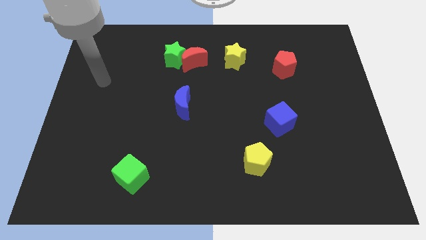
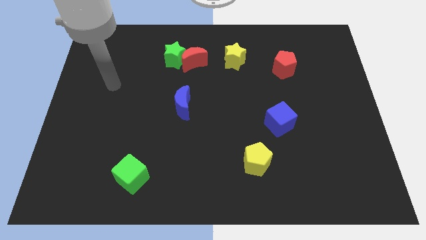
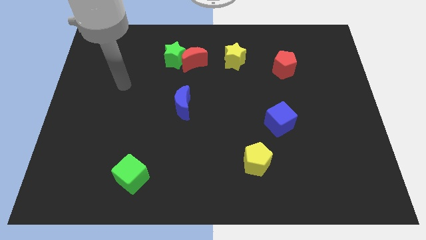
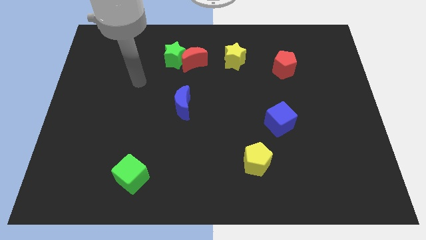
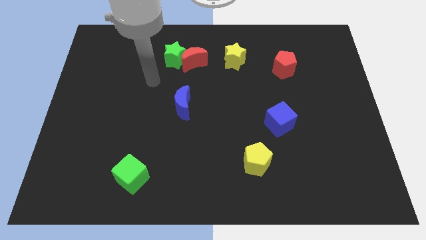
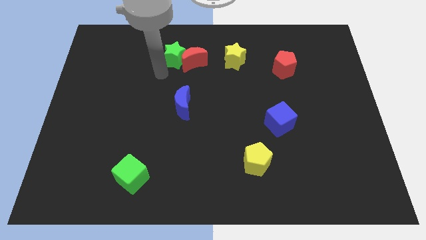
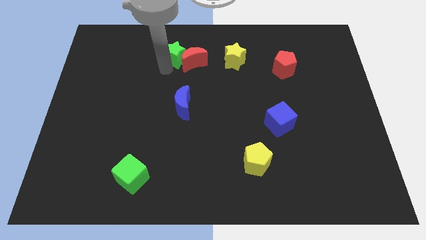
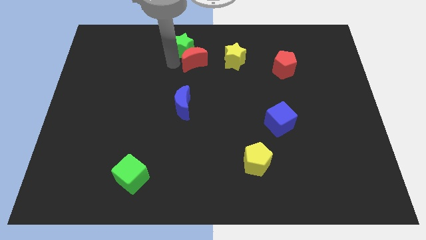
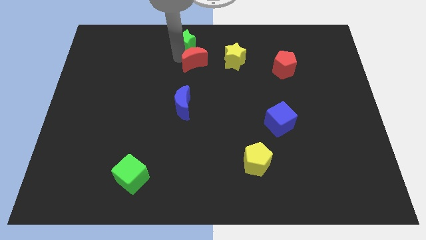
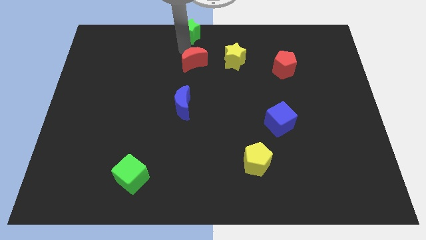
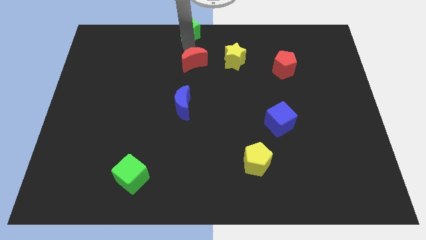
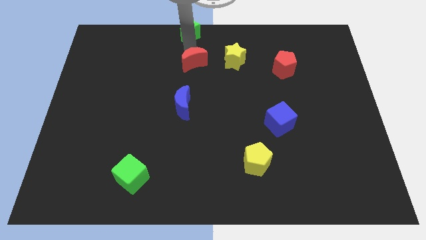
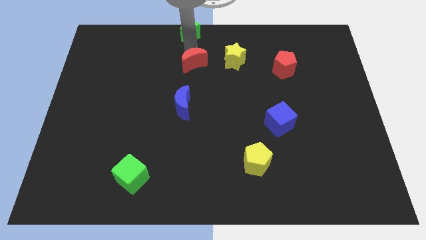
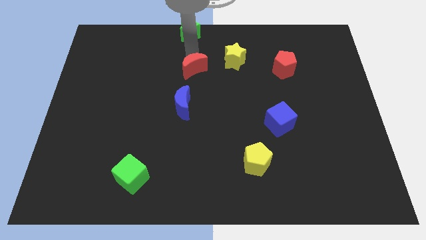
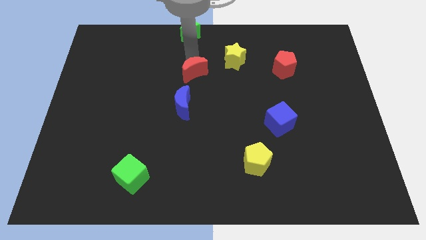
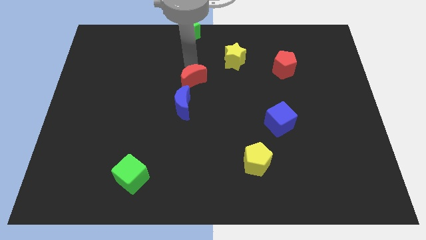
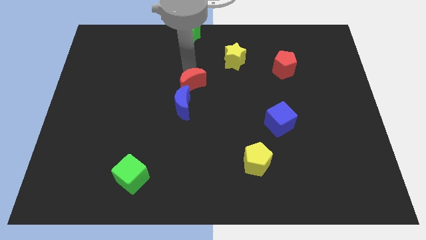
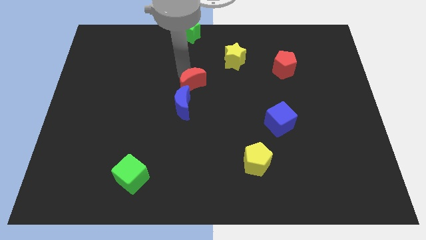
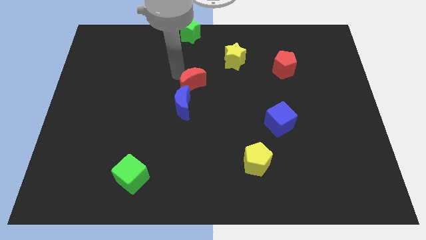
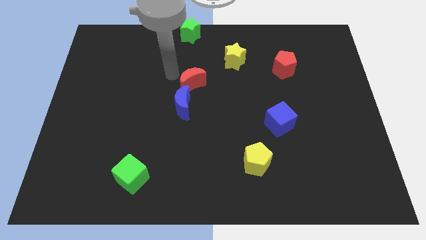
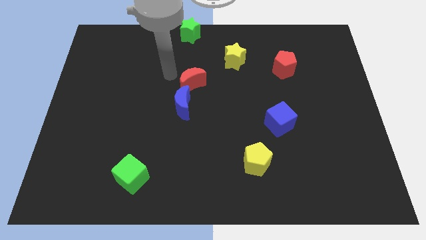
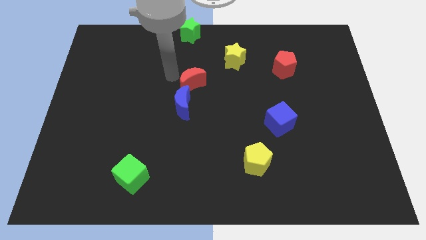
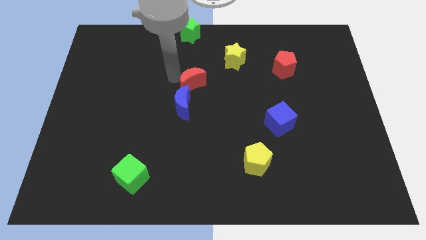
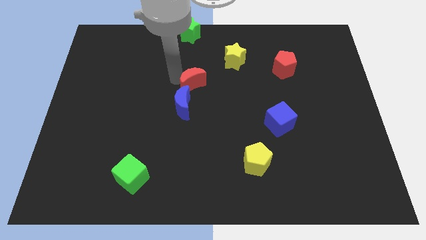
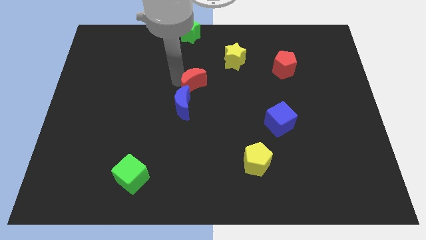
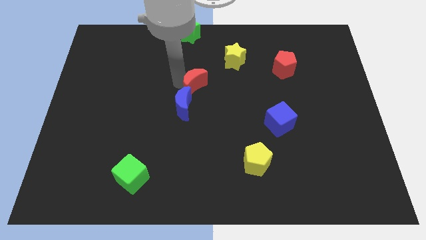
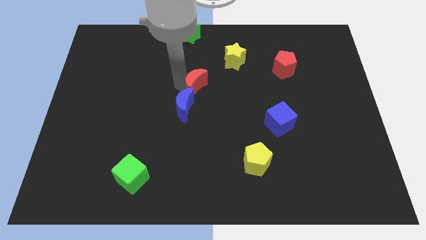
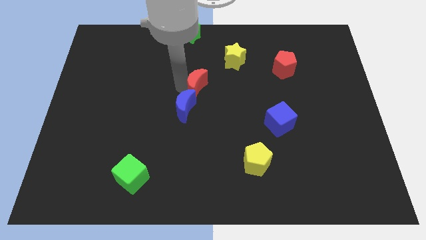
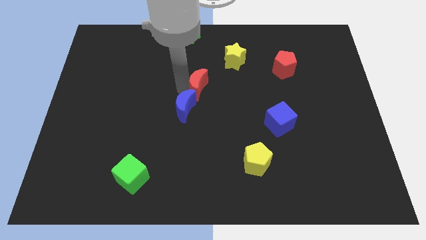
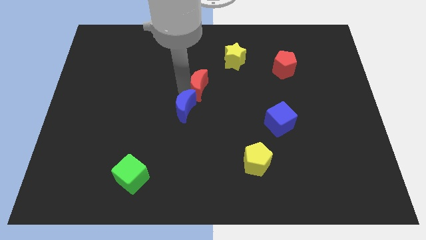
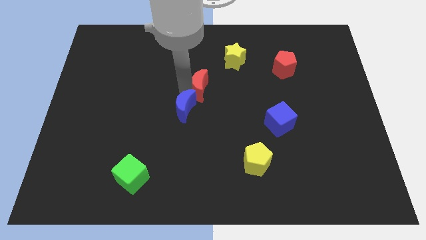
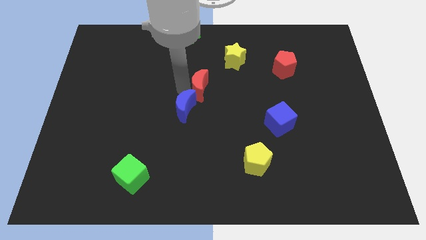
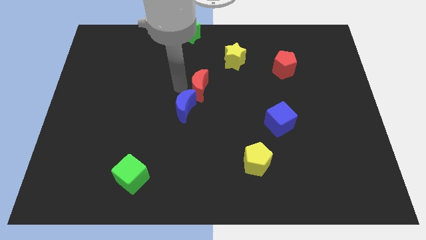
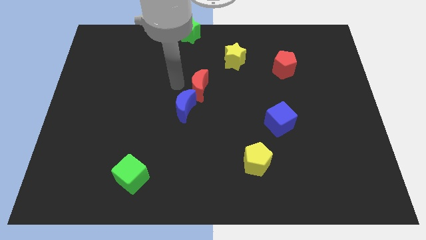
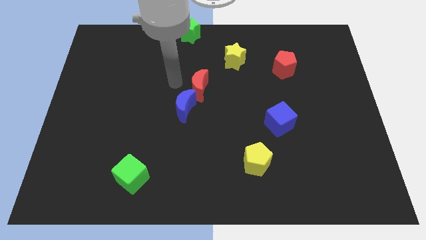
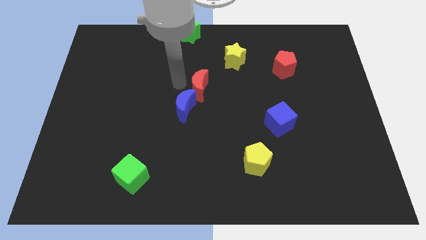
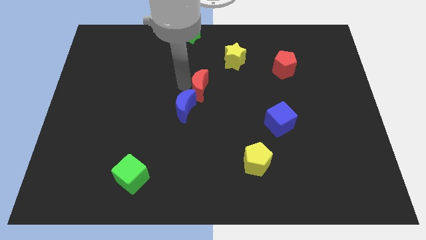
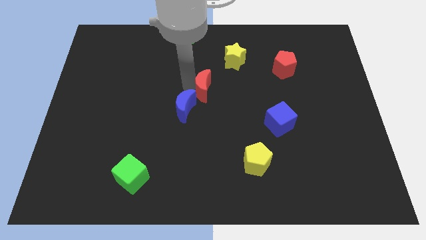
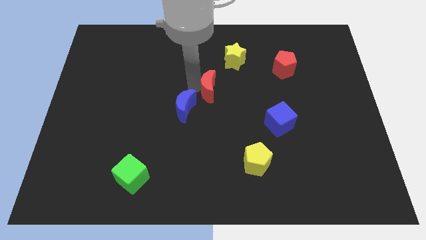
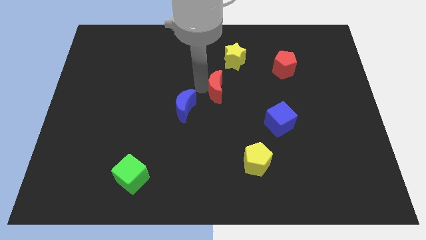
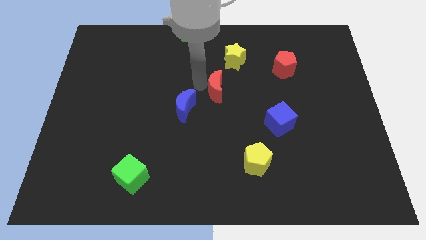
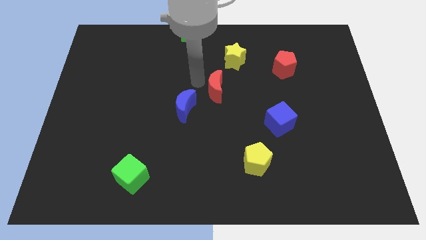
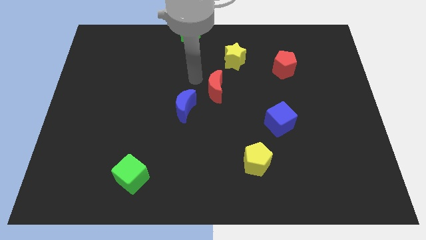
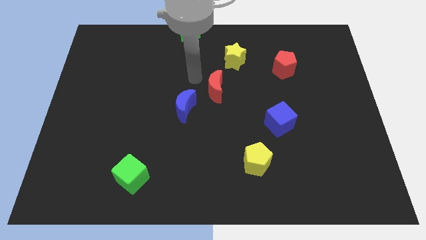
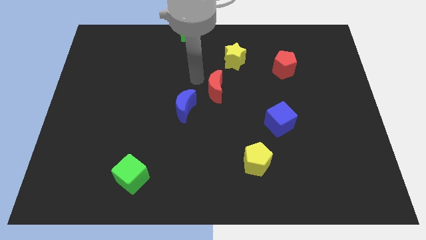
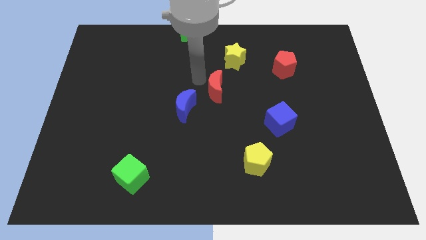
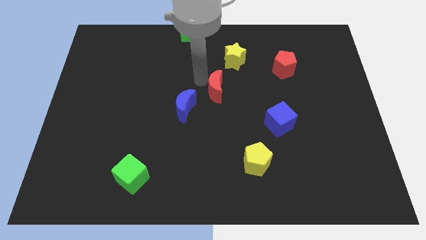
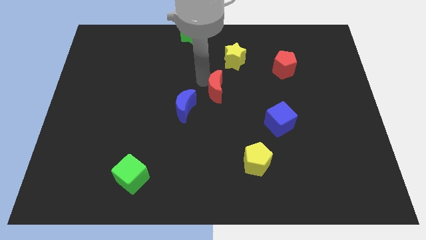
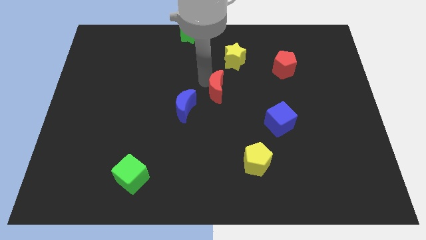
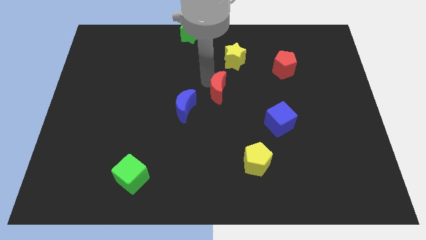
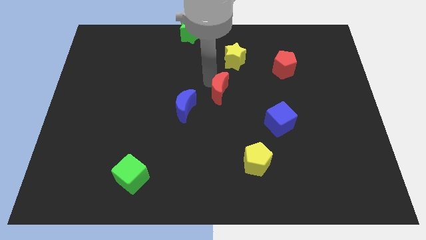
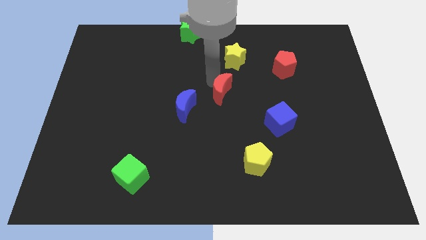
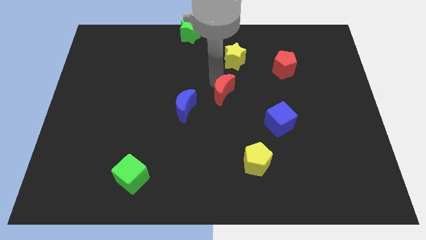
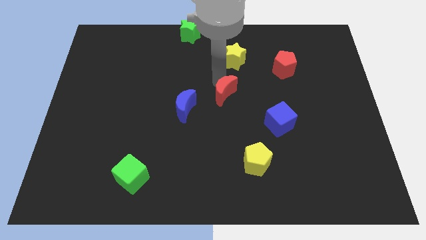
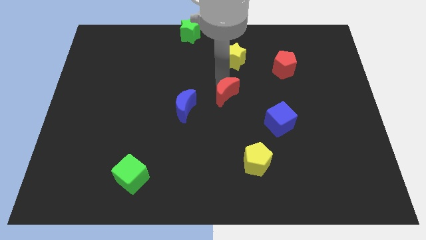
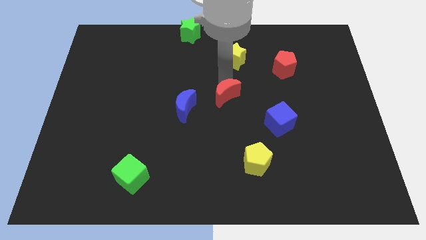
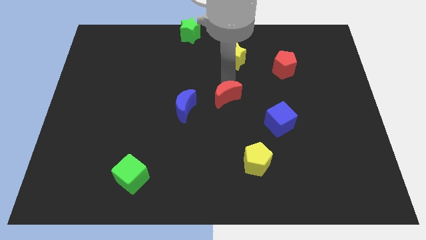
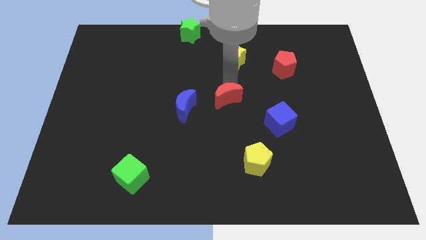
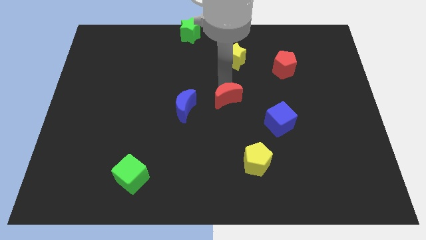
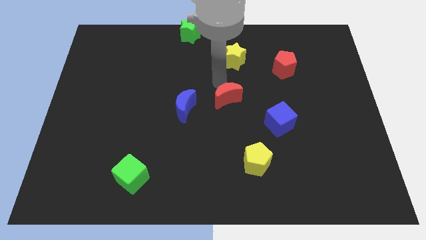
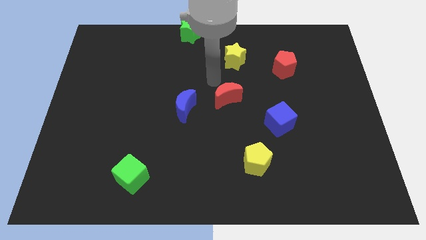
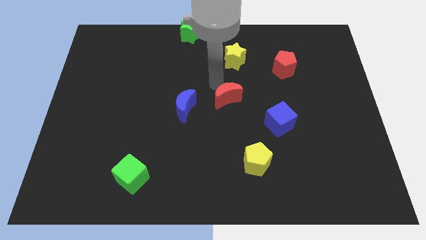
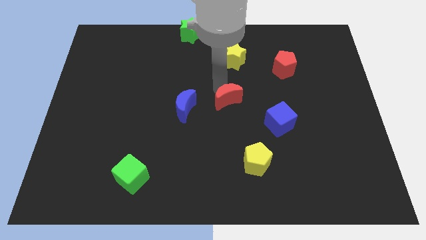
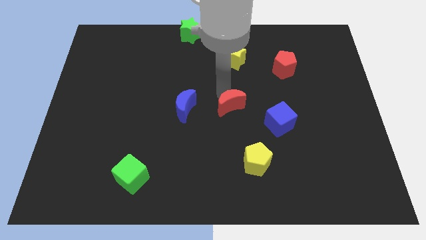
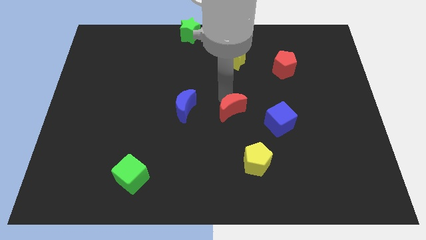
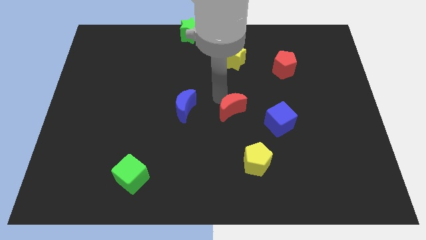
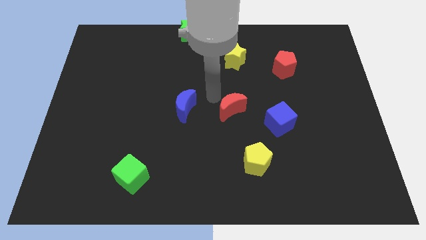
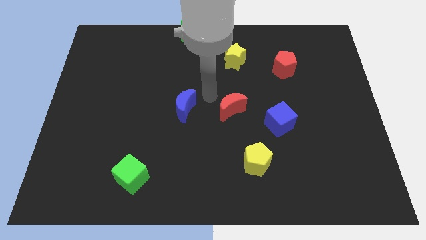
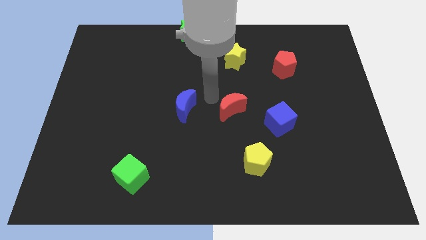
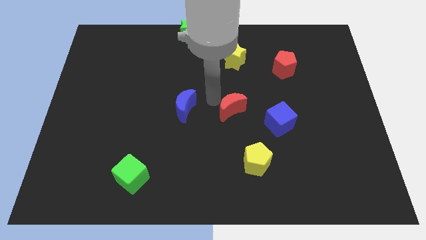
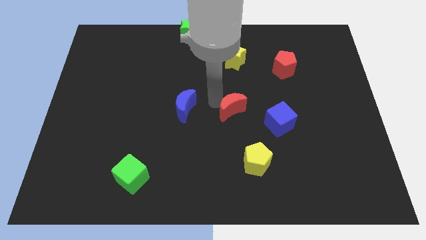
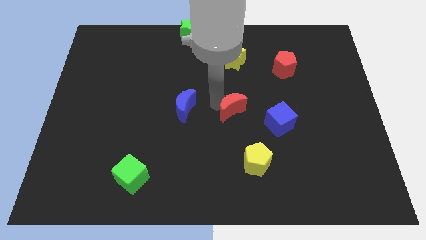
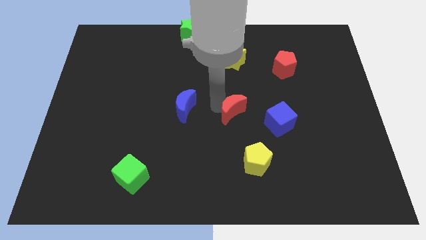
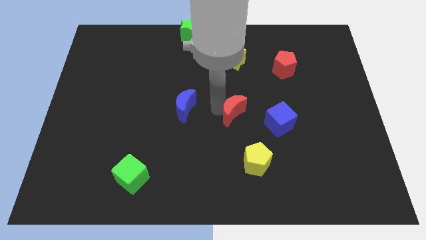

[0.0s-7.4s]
slide the red moon to the top of the yellow pentagon

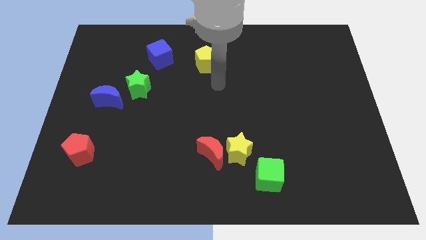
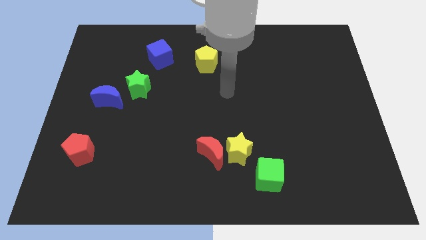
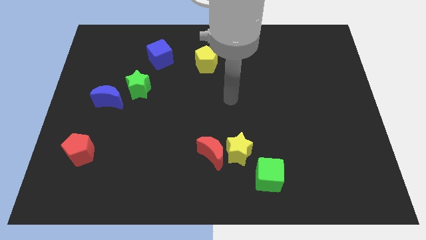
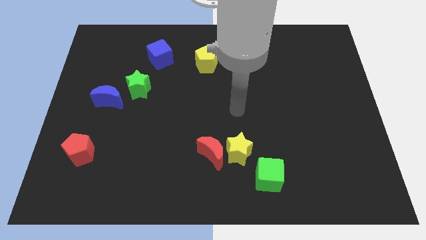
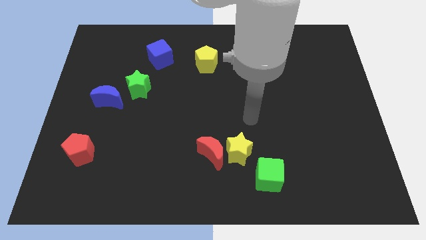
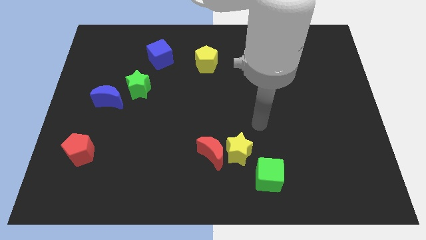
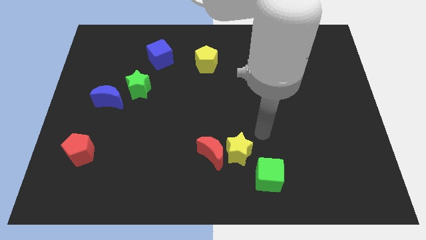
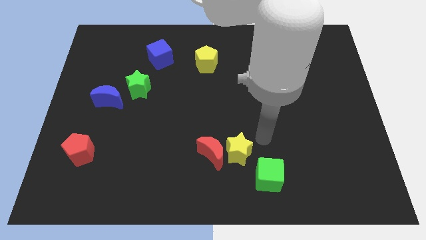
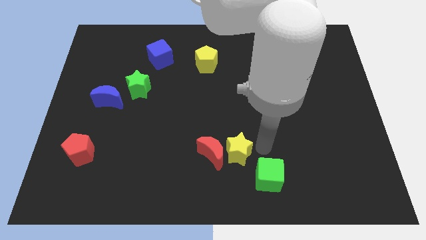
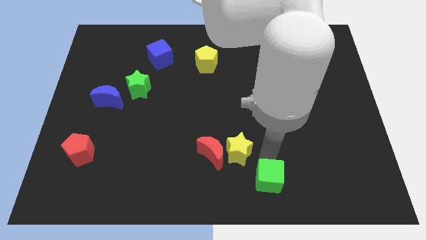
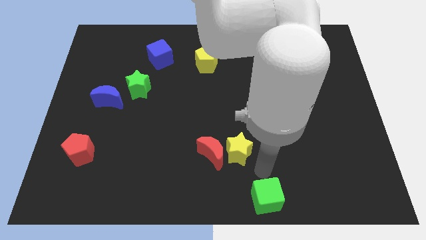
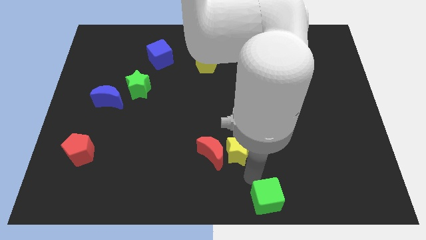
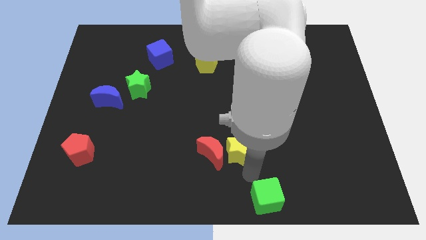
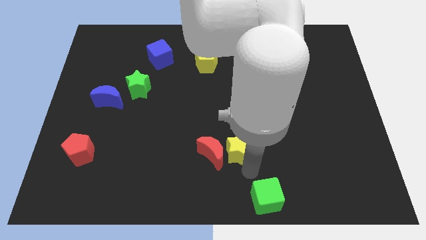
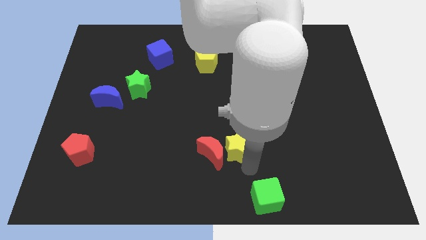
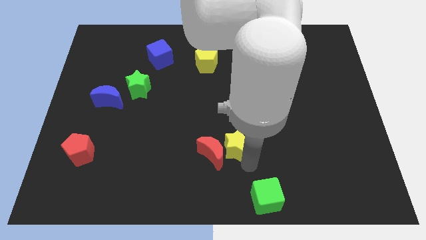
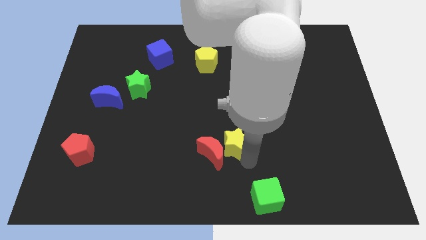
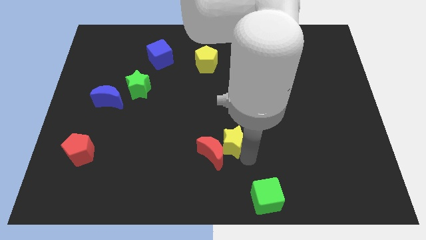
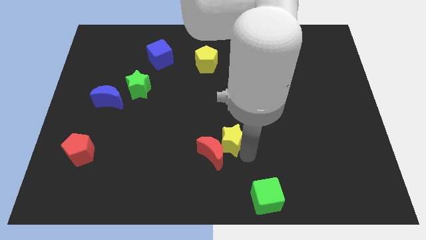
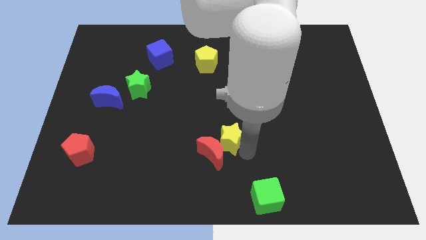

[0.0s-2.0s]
slide the yellow star above the red moon
